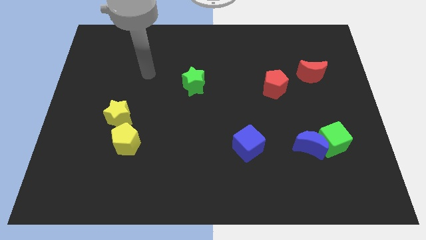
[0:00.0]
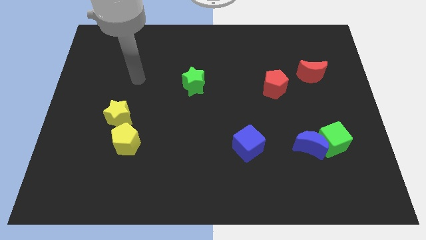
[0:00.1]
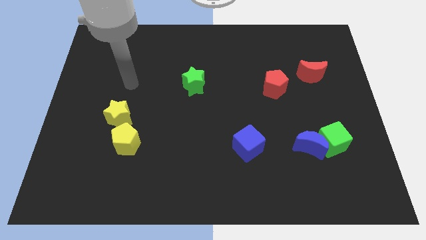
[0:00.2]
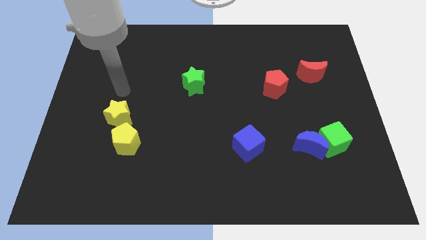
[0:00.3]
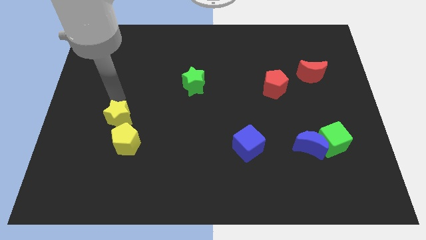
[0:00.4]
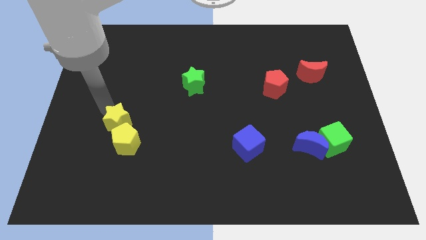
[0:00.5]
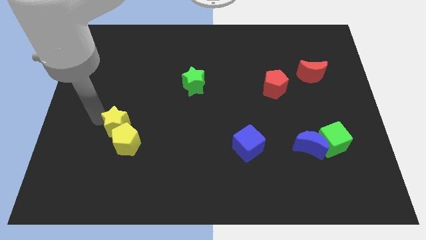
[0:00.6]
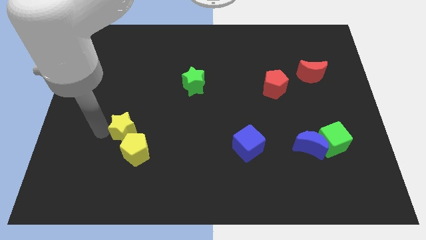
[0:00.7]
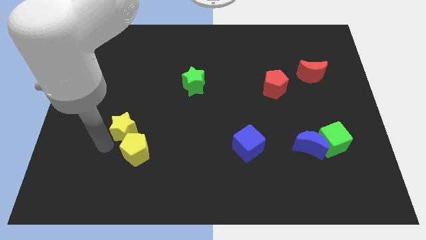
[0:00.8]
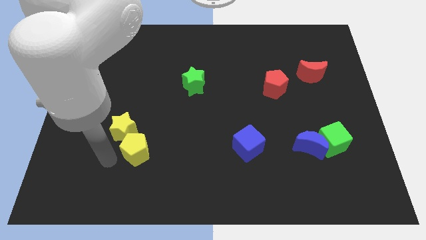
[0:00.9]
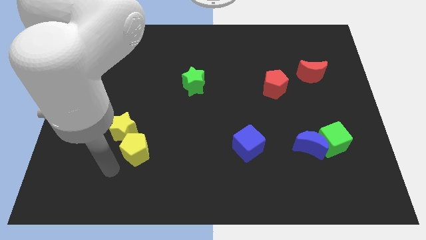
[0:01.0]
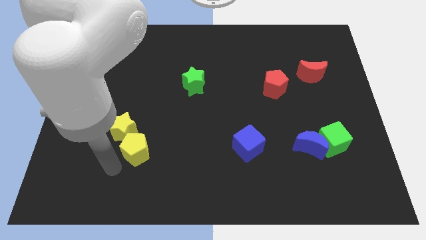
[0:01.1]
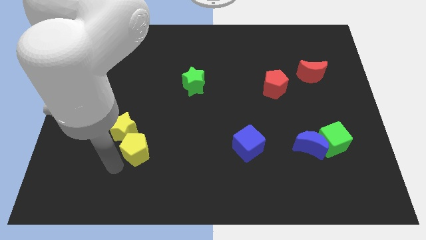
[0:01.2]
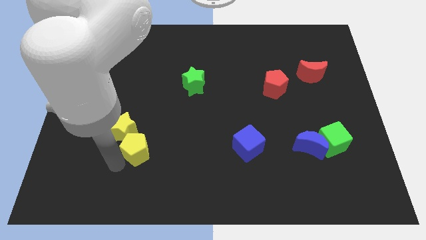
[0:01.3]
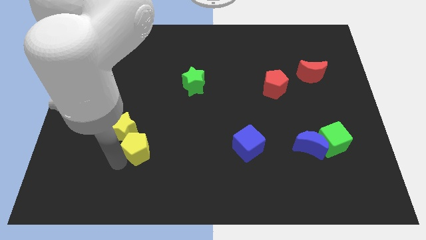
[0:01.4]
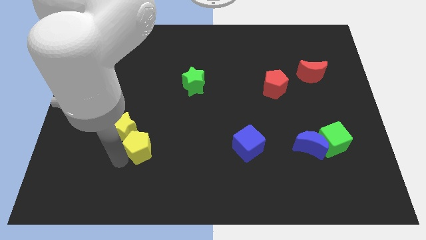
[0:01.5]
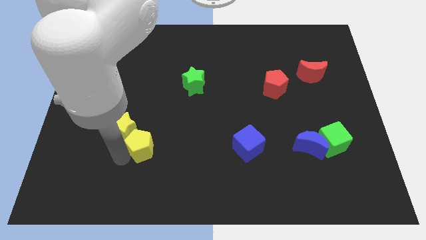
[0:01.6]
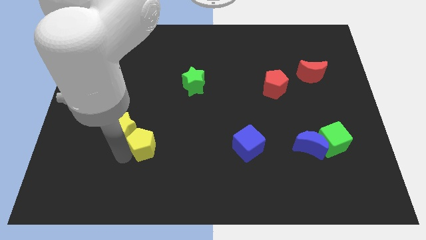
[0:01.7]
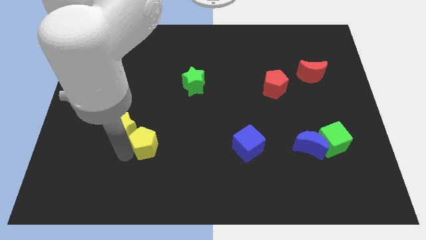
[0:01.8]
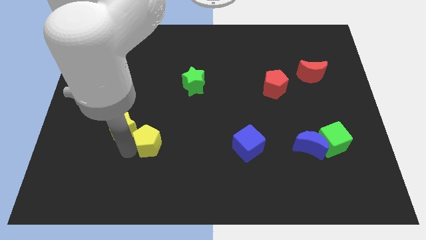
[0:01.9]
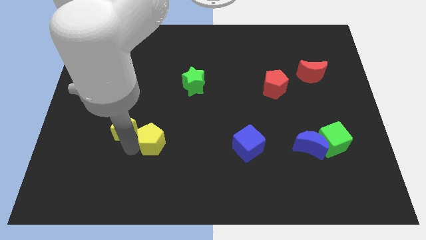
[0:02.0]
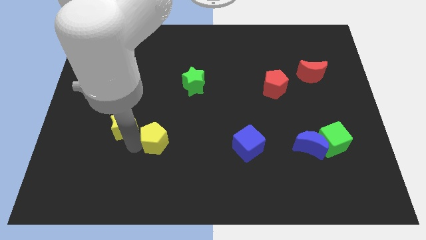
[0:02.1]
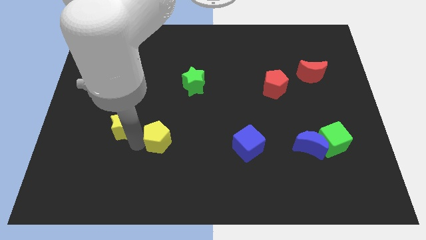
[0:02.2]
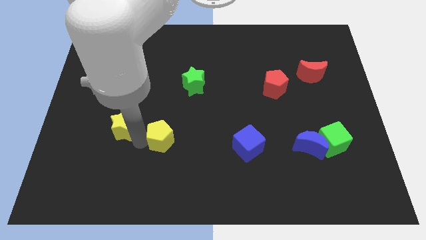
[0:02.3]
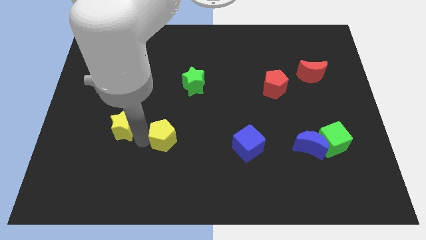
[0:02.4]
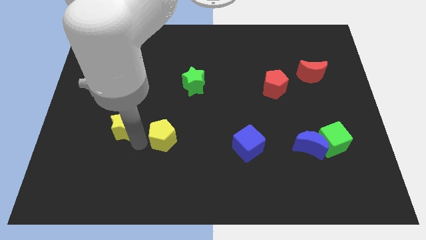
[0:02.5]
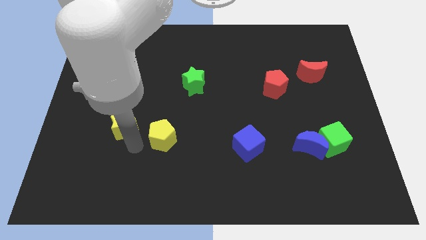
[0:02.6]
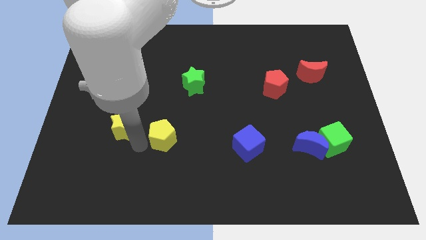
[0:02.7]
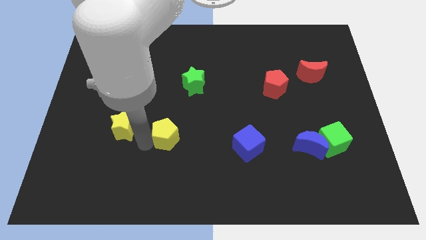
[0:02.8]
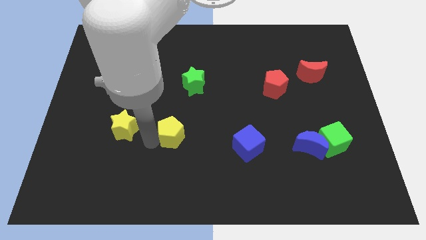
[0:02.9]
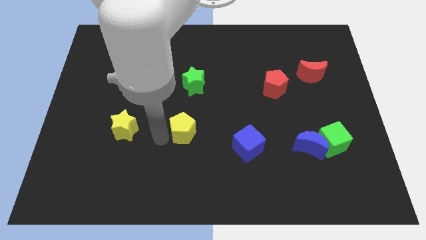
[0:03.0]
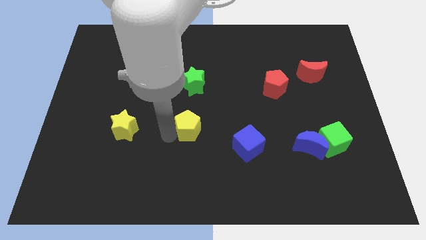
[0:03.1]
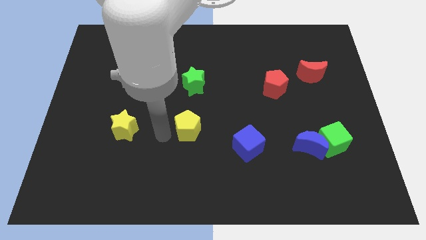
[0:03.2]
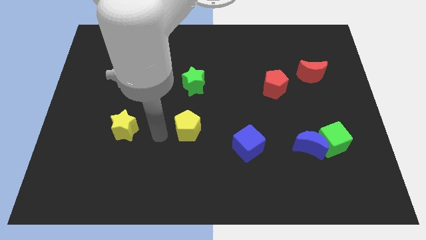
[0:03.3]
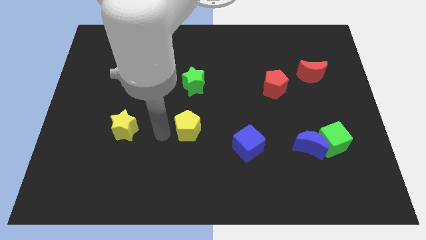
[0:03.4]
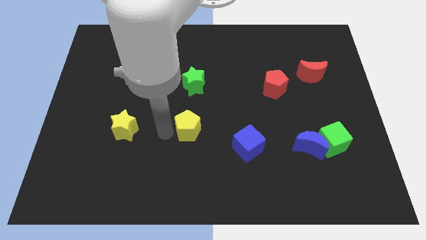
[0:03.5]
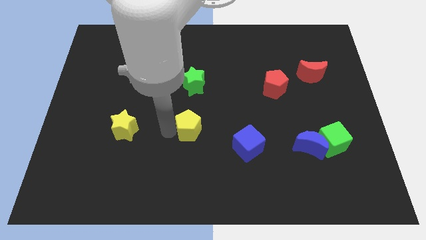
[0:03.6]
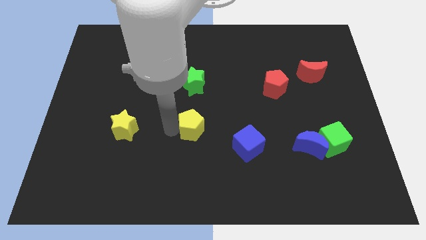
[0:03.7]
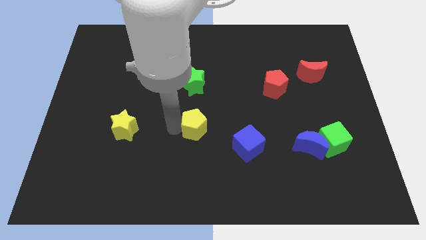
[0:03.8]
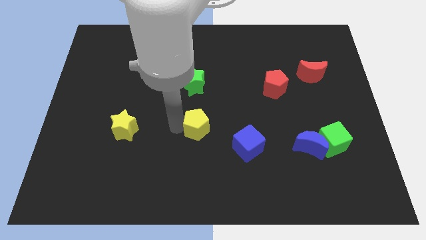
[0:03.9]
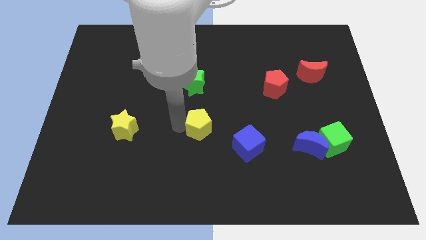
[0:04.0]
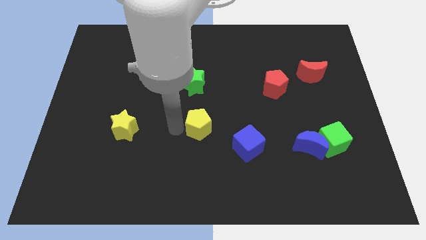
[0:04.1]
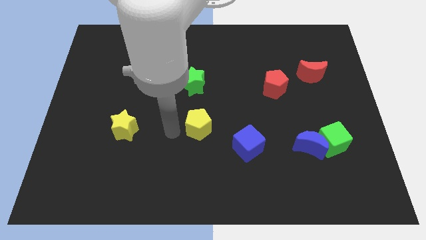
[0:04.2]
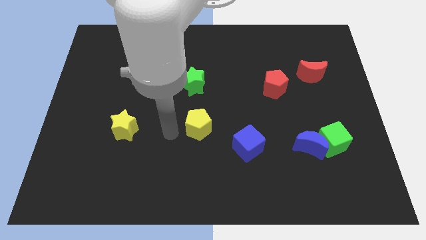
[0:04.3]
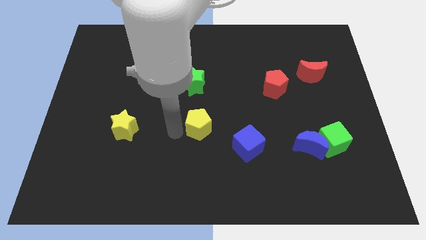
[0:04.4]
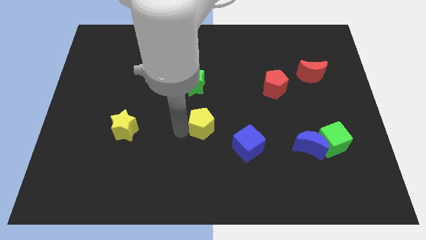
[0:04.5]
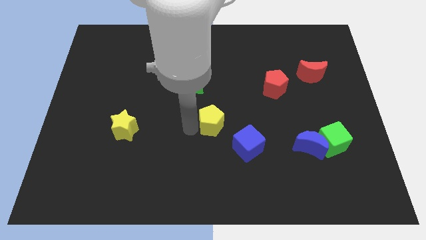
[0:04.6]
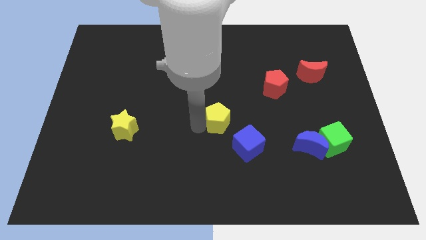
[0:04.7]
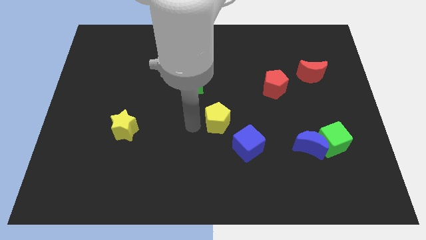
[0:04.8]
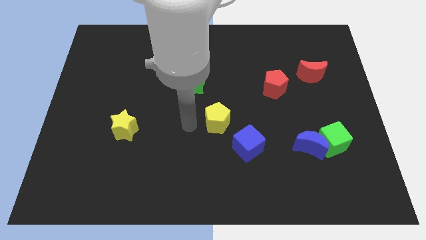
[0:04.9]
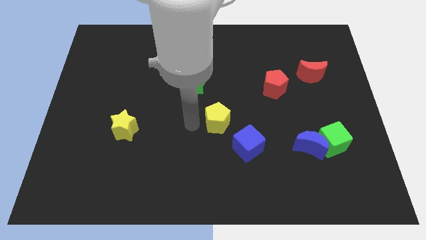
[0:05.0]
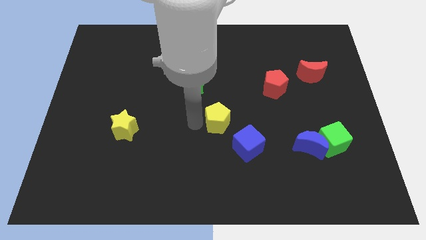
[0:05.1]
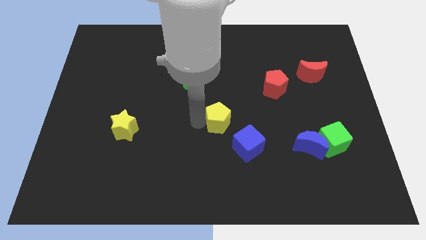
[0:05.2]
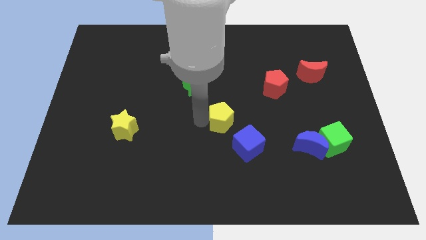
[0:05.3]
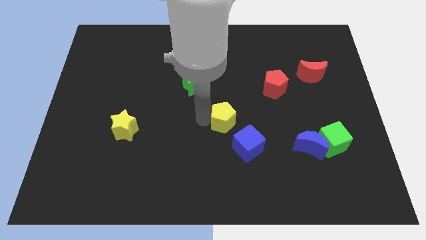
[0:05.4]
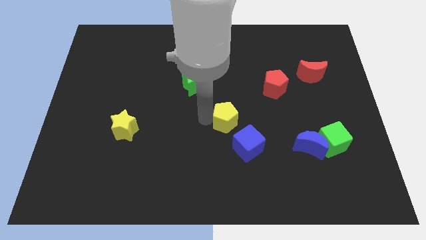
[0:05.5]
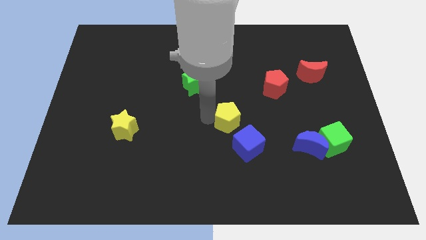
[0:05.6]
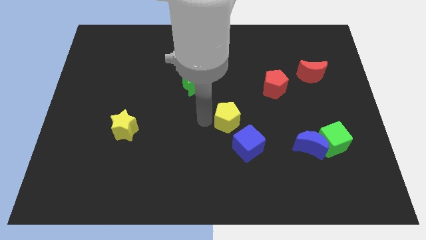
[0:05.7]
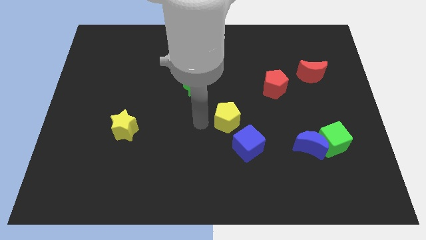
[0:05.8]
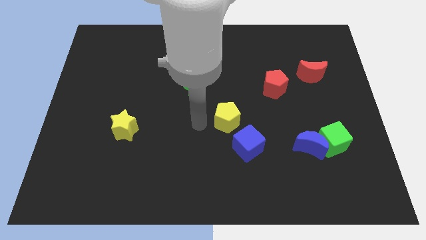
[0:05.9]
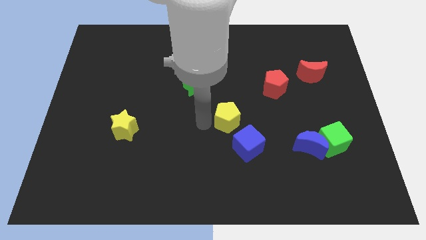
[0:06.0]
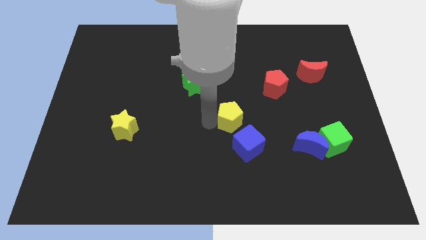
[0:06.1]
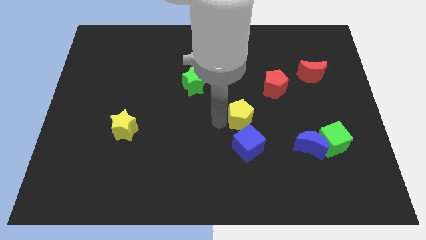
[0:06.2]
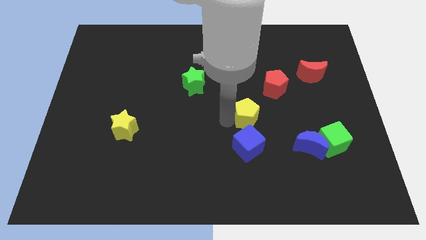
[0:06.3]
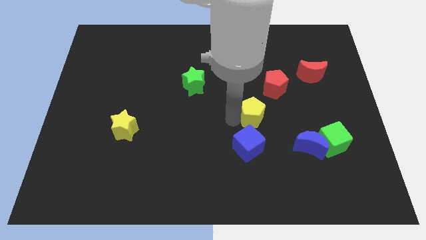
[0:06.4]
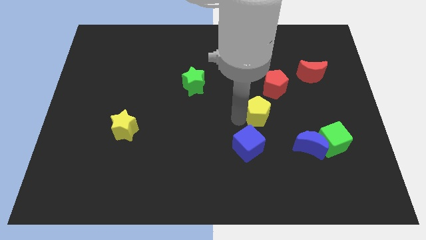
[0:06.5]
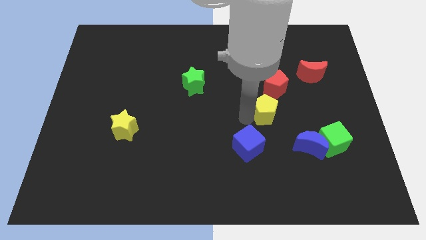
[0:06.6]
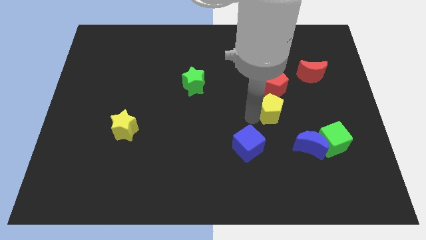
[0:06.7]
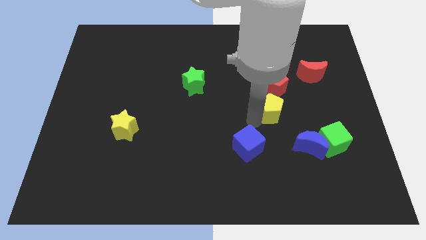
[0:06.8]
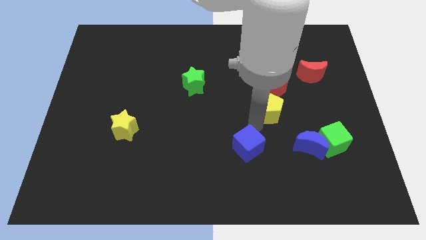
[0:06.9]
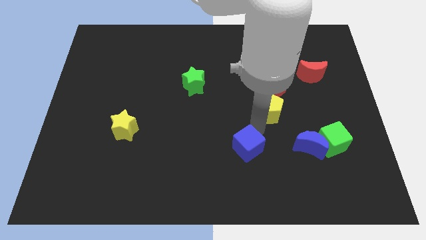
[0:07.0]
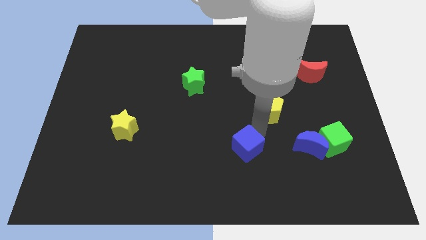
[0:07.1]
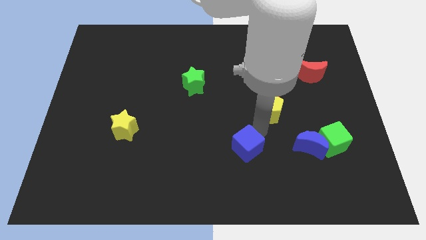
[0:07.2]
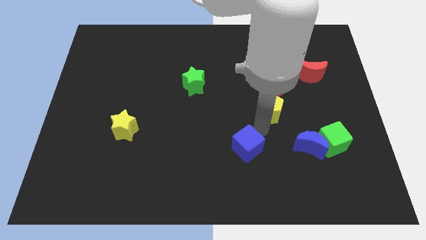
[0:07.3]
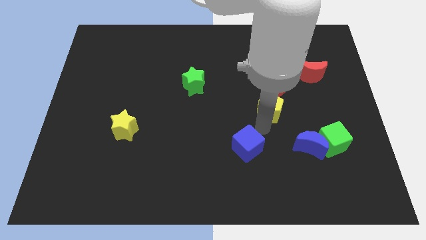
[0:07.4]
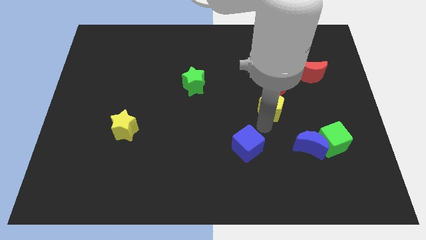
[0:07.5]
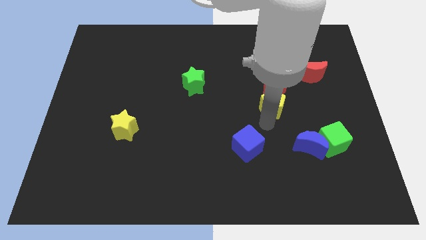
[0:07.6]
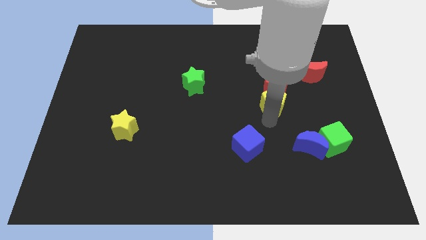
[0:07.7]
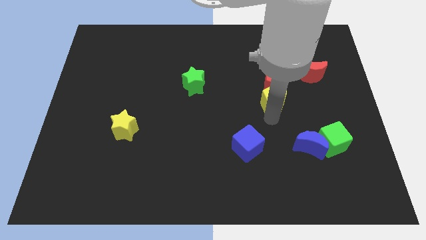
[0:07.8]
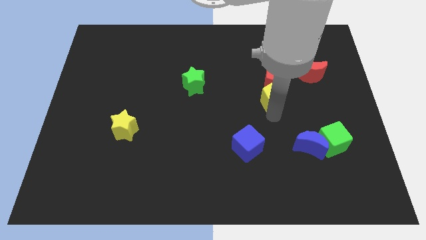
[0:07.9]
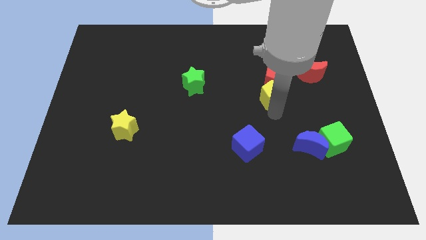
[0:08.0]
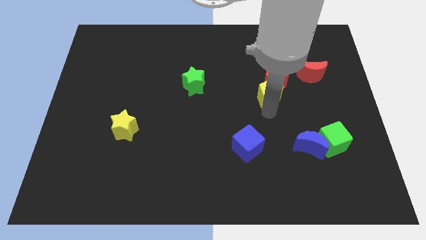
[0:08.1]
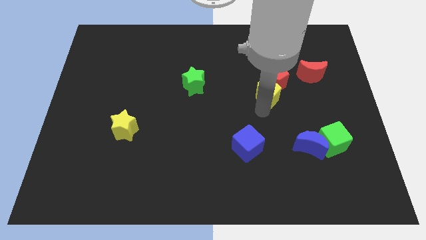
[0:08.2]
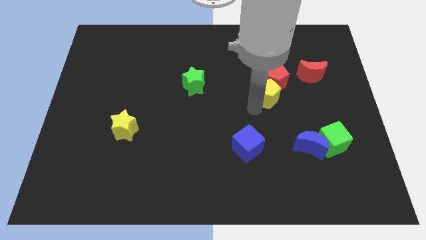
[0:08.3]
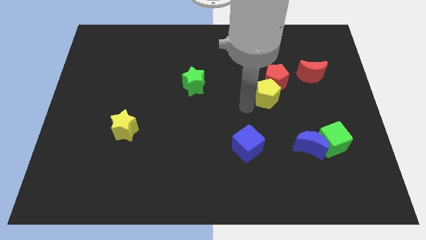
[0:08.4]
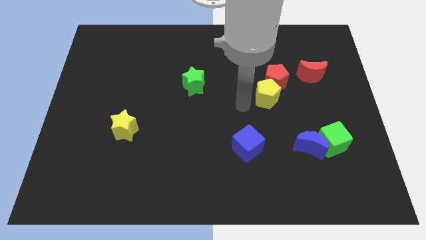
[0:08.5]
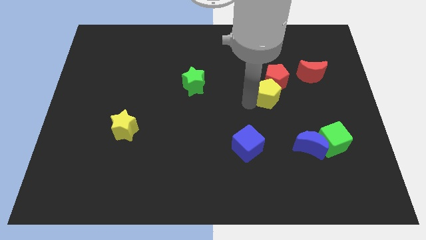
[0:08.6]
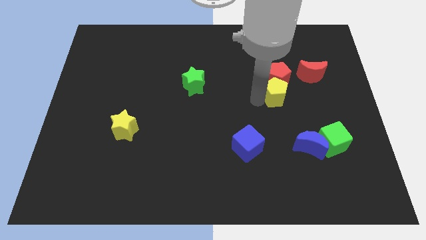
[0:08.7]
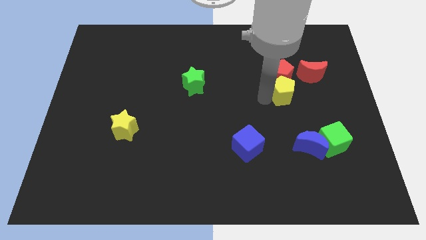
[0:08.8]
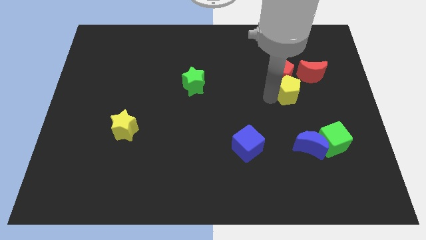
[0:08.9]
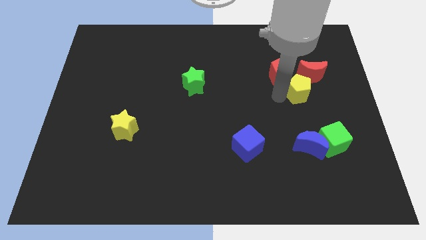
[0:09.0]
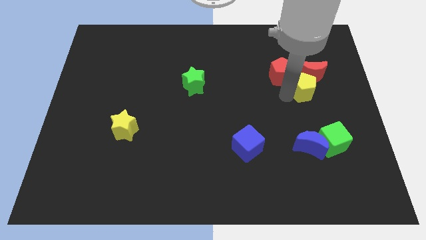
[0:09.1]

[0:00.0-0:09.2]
push the yellow pentagon next to the red moon
